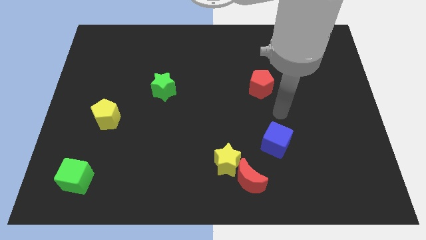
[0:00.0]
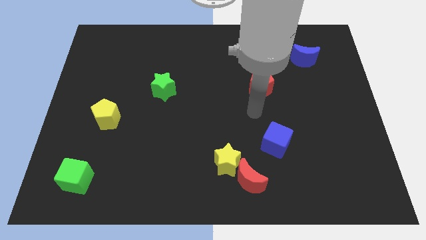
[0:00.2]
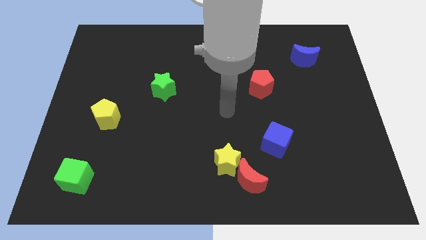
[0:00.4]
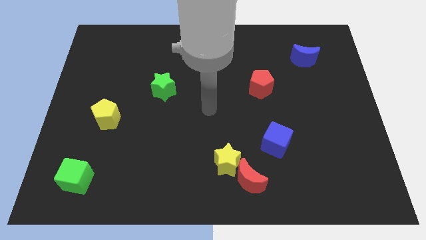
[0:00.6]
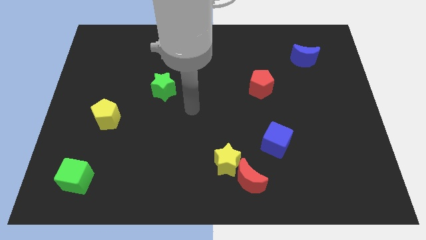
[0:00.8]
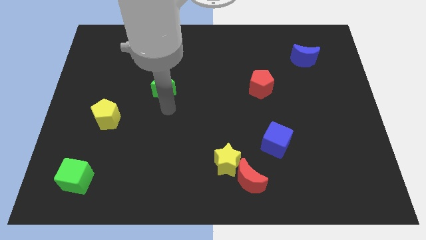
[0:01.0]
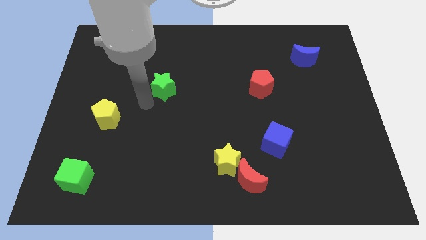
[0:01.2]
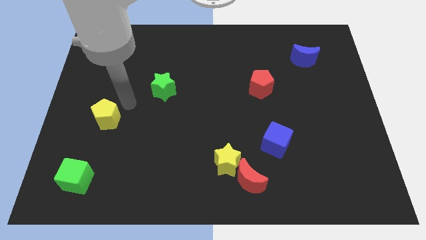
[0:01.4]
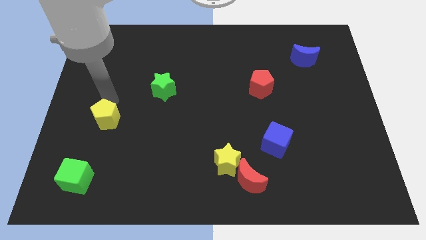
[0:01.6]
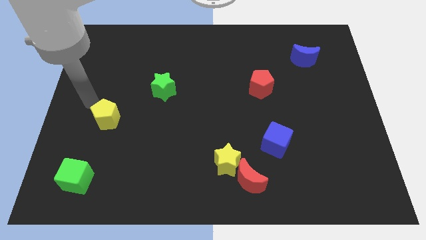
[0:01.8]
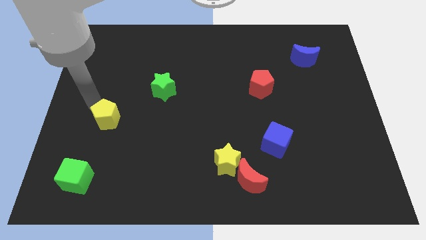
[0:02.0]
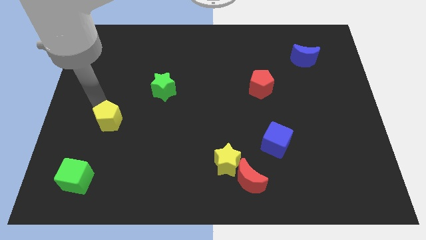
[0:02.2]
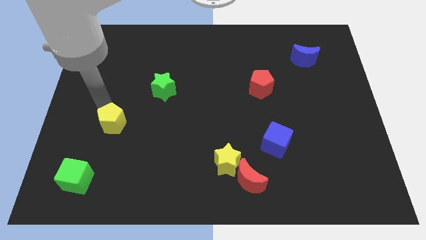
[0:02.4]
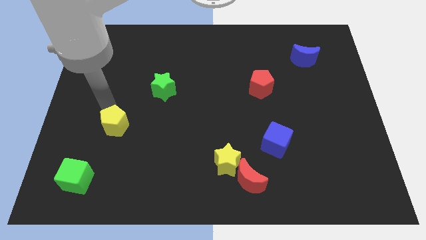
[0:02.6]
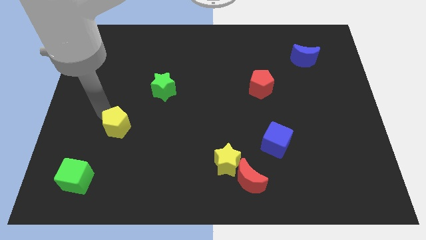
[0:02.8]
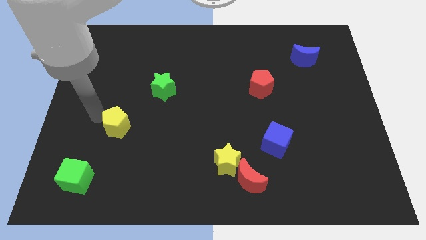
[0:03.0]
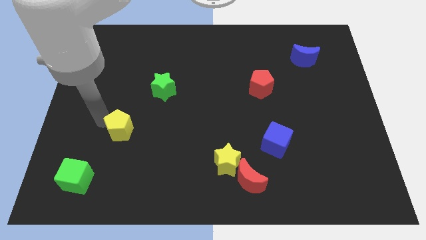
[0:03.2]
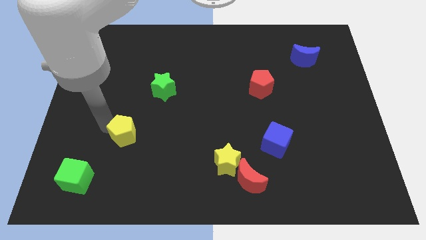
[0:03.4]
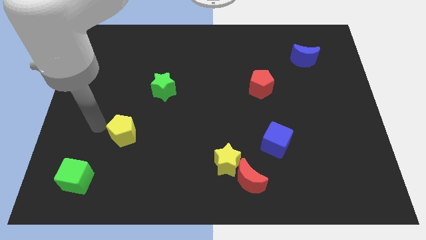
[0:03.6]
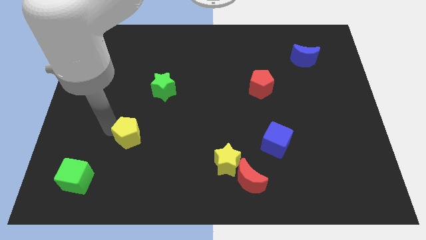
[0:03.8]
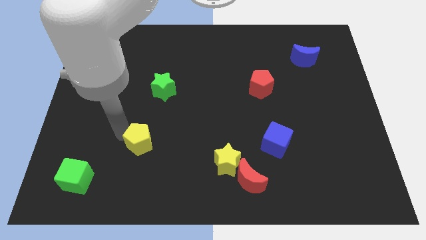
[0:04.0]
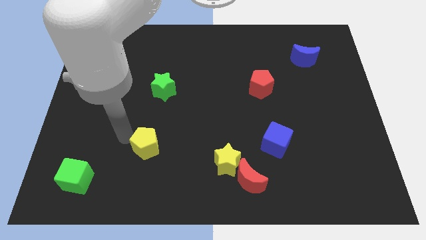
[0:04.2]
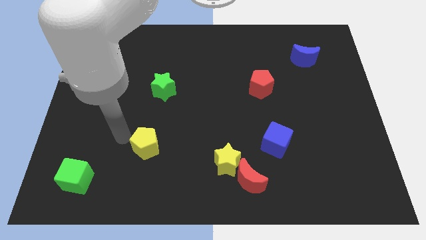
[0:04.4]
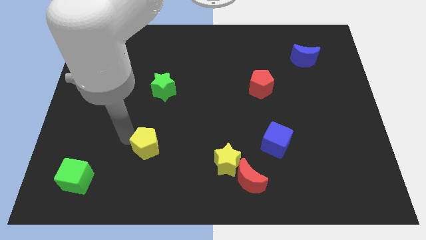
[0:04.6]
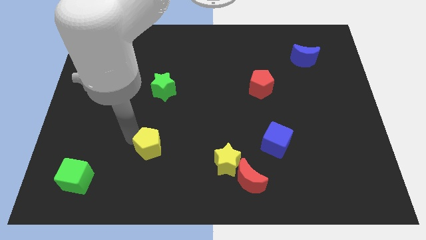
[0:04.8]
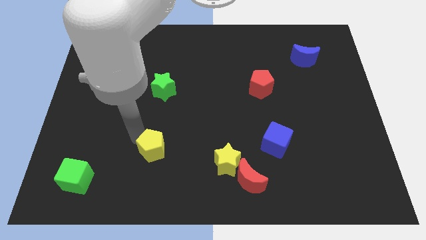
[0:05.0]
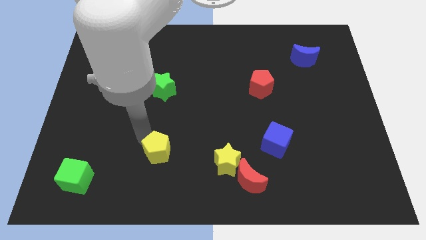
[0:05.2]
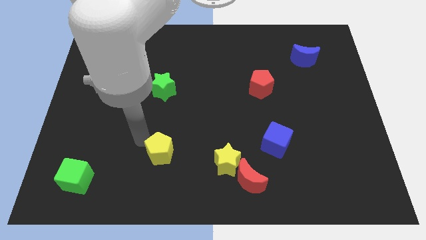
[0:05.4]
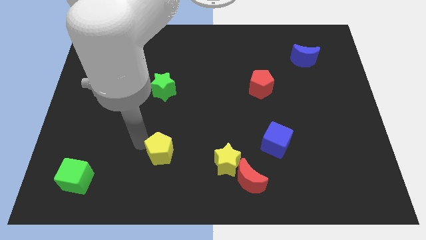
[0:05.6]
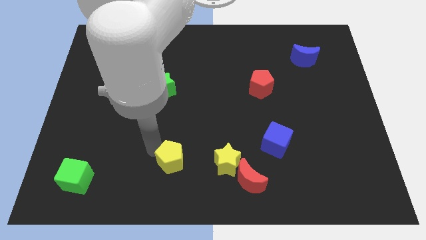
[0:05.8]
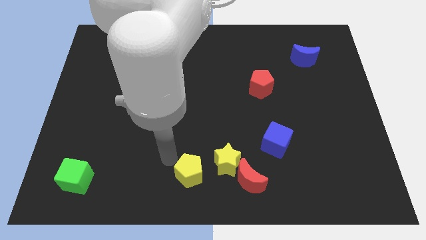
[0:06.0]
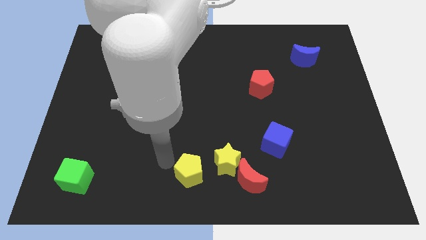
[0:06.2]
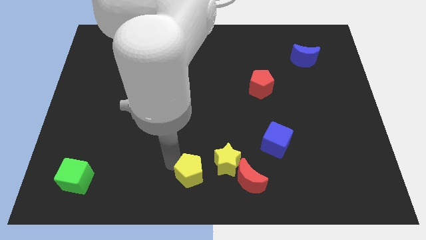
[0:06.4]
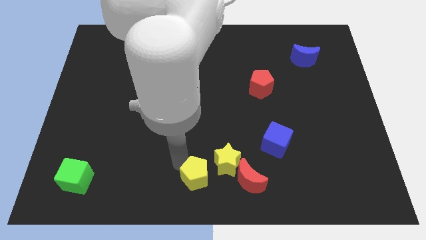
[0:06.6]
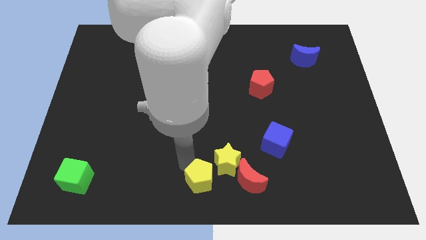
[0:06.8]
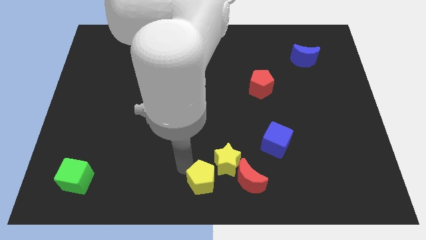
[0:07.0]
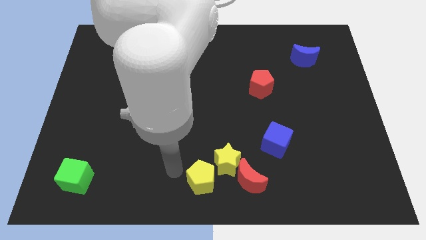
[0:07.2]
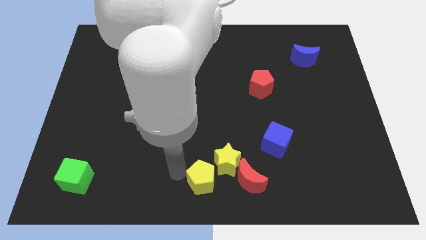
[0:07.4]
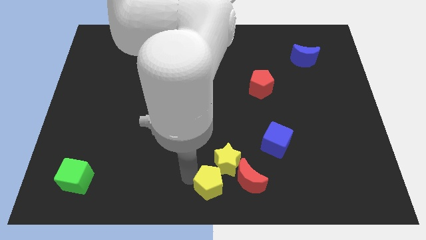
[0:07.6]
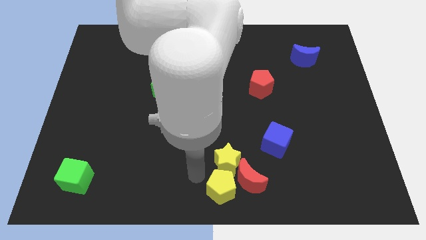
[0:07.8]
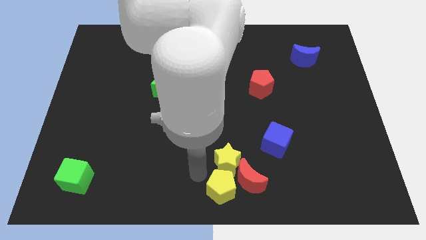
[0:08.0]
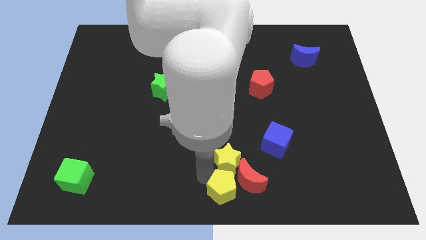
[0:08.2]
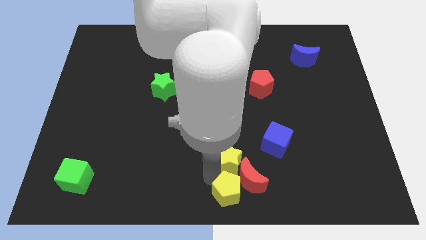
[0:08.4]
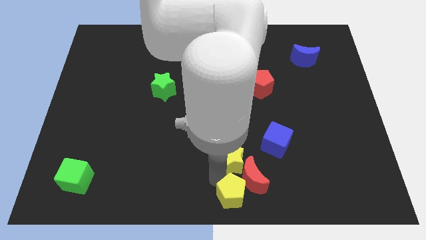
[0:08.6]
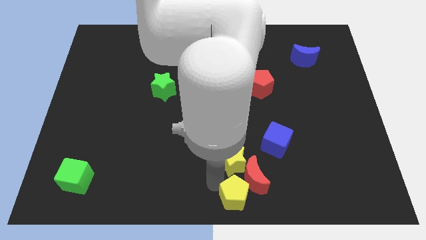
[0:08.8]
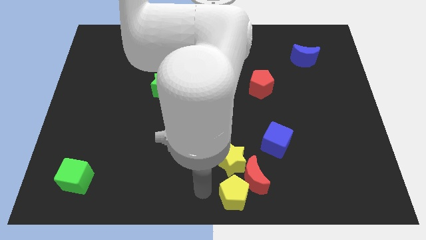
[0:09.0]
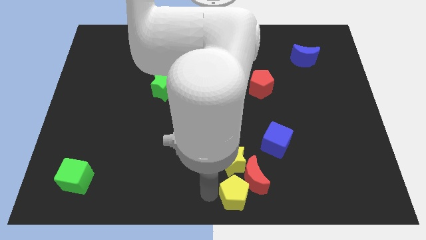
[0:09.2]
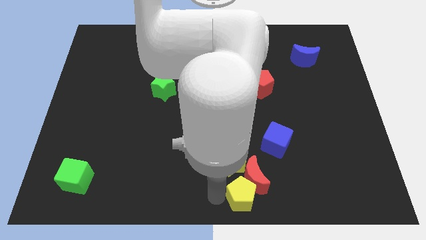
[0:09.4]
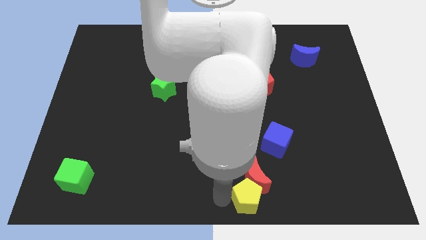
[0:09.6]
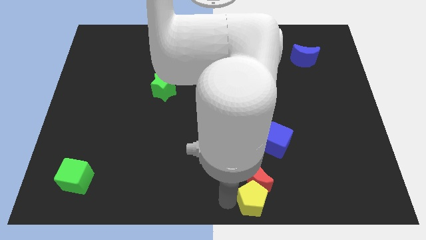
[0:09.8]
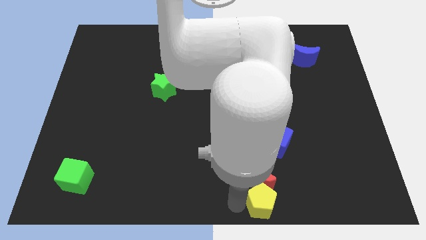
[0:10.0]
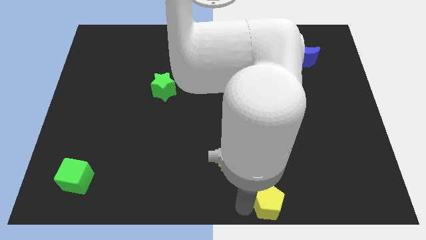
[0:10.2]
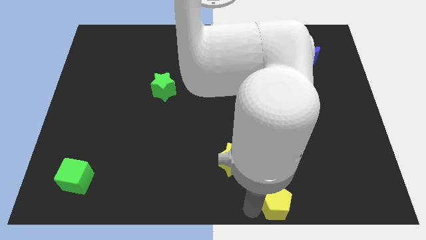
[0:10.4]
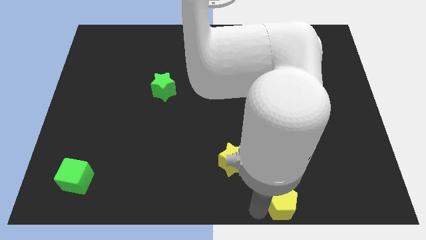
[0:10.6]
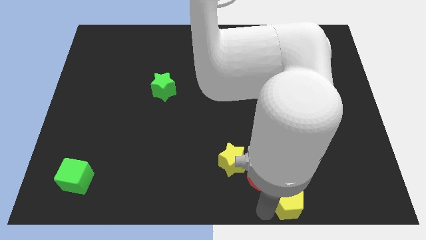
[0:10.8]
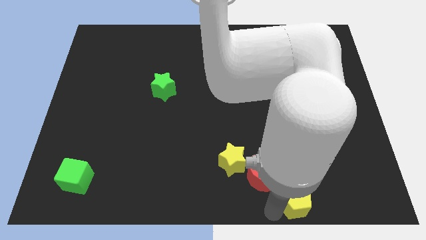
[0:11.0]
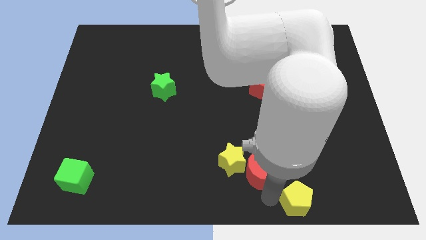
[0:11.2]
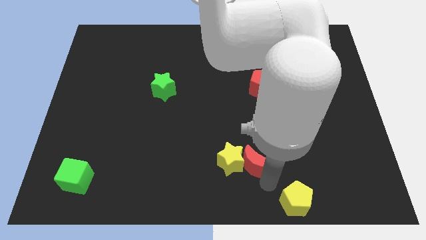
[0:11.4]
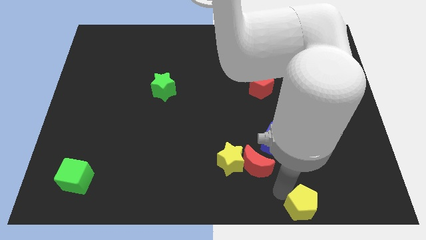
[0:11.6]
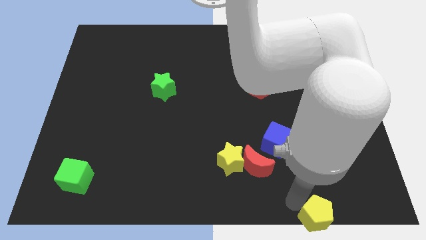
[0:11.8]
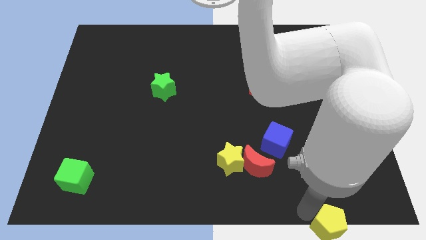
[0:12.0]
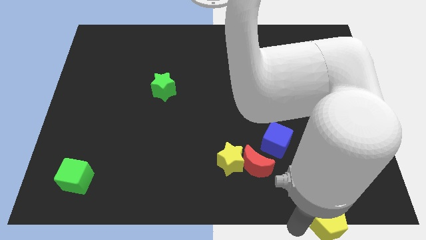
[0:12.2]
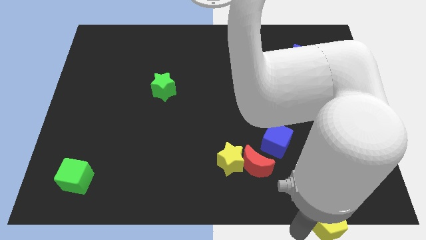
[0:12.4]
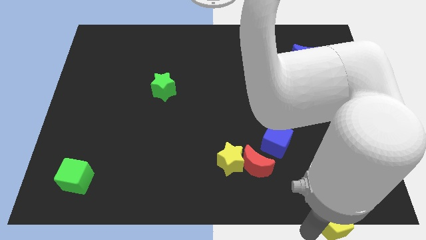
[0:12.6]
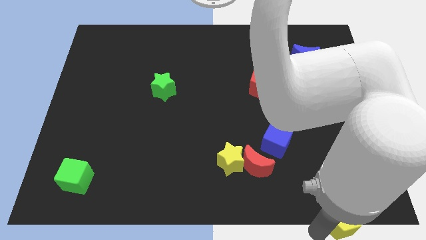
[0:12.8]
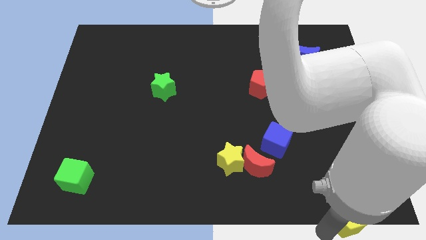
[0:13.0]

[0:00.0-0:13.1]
put the yellow pentagon to the lower right corner
